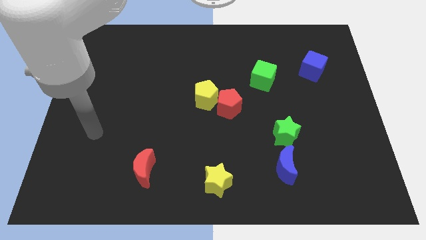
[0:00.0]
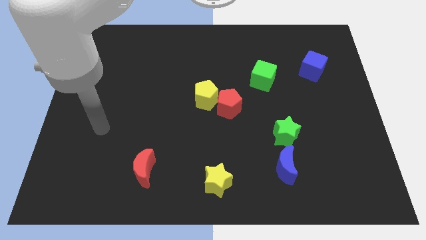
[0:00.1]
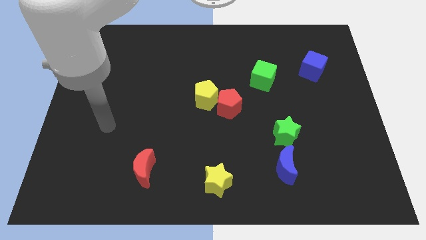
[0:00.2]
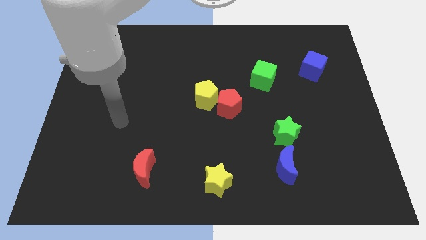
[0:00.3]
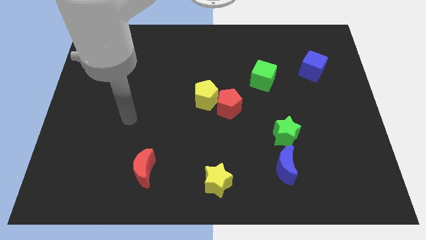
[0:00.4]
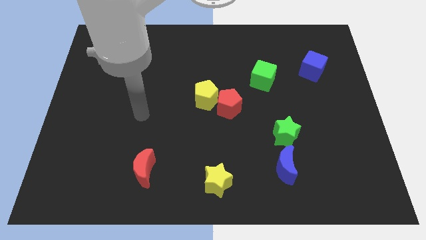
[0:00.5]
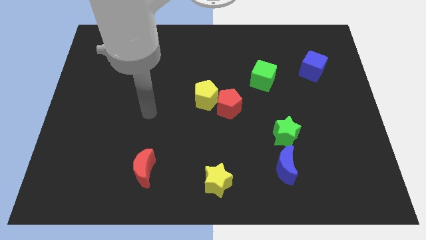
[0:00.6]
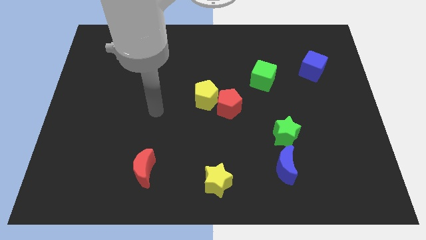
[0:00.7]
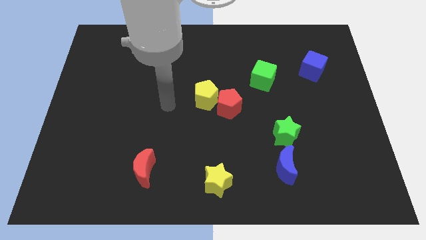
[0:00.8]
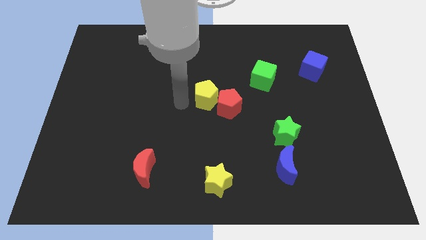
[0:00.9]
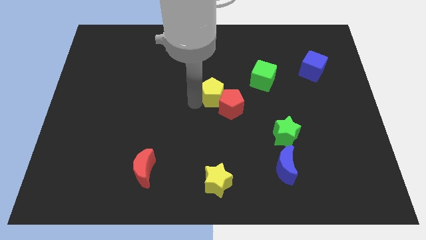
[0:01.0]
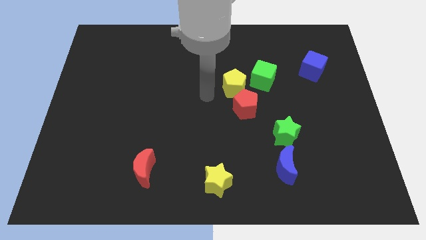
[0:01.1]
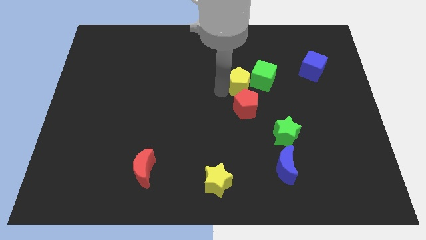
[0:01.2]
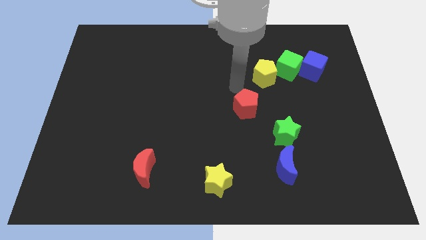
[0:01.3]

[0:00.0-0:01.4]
separate the red pentagon from the yellow pentagon

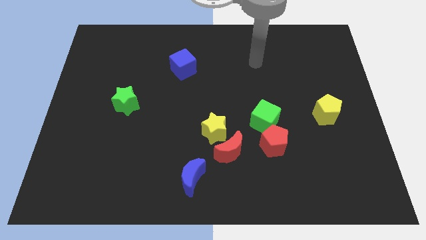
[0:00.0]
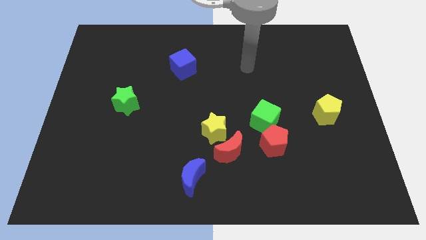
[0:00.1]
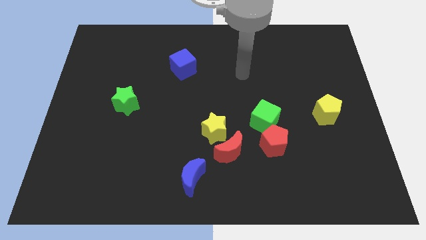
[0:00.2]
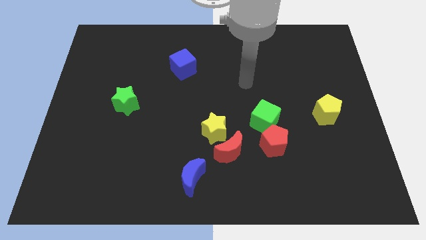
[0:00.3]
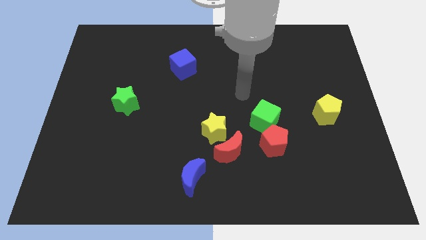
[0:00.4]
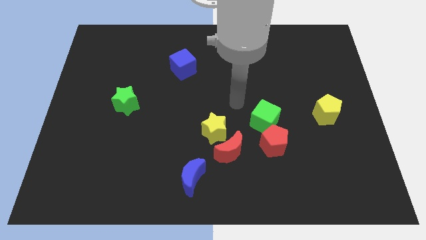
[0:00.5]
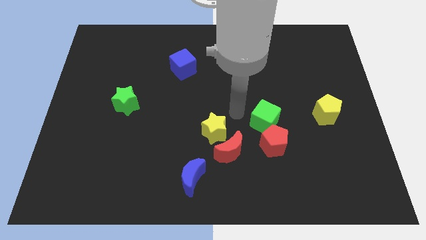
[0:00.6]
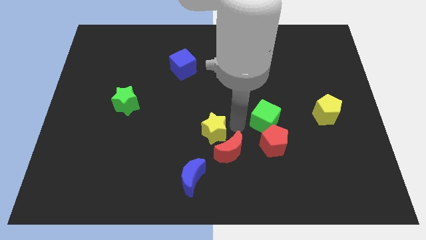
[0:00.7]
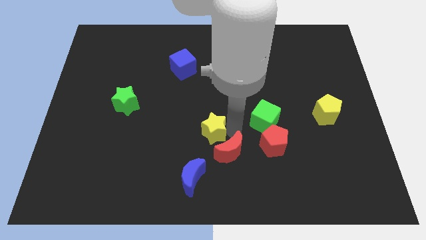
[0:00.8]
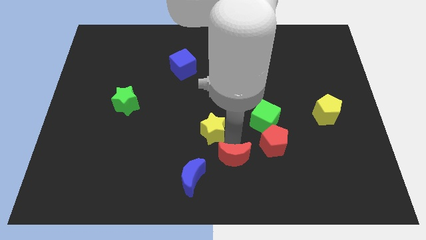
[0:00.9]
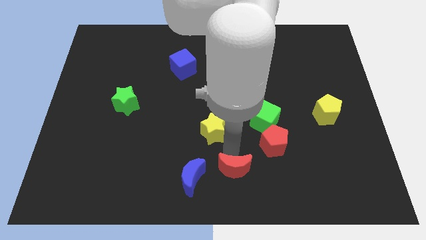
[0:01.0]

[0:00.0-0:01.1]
pull the yellow star apart from the red moon

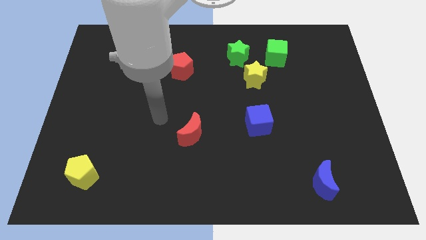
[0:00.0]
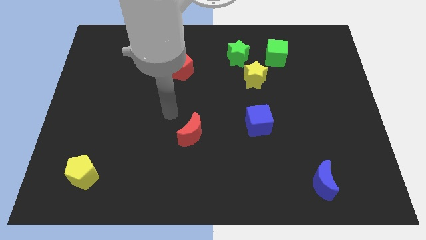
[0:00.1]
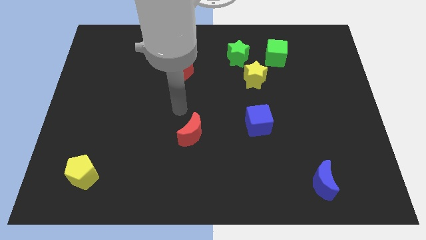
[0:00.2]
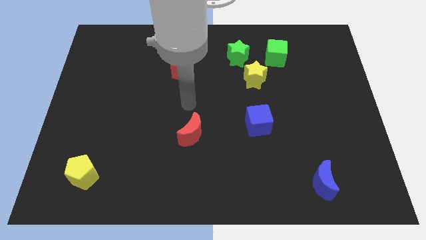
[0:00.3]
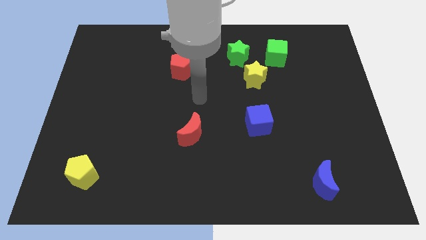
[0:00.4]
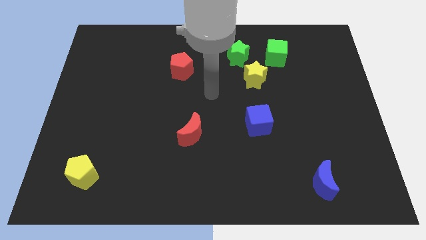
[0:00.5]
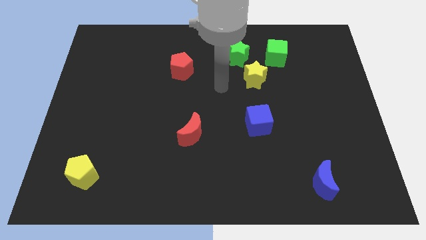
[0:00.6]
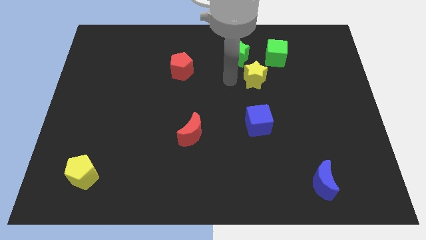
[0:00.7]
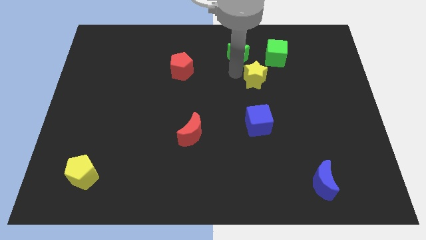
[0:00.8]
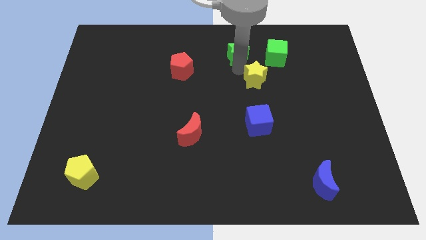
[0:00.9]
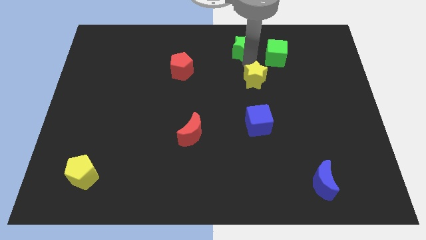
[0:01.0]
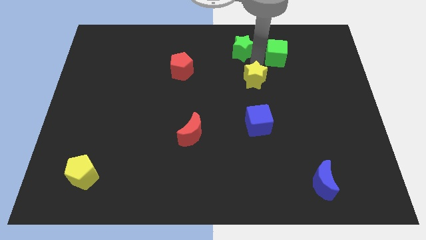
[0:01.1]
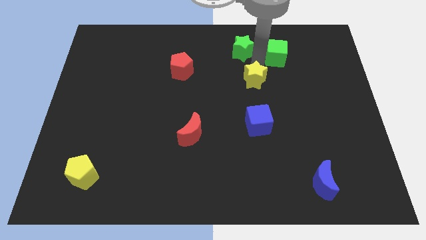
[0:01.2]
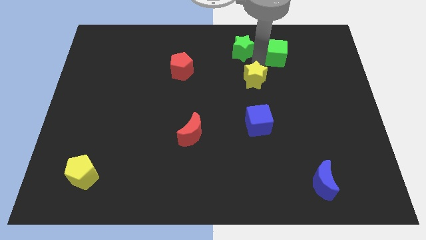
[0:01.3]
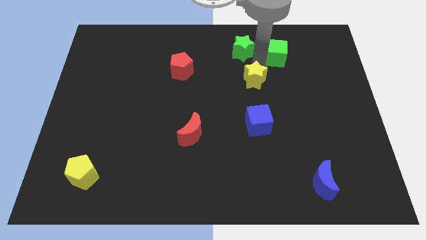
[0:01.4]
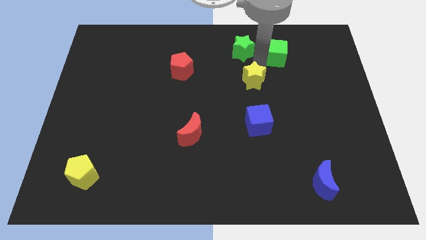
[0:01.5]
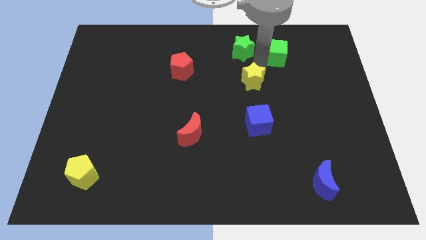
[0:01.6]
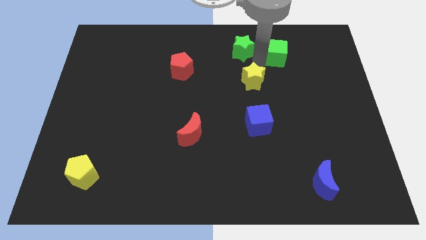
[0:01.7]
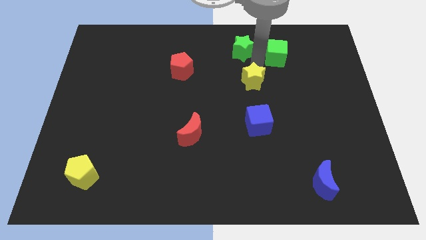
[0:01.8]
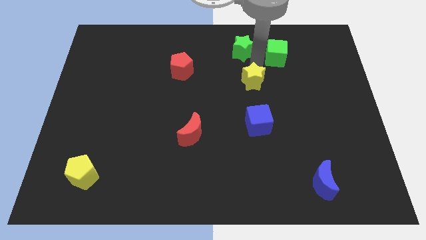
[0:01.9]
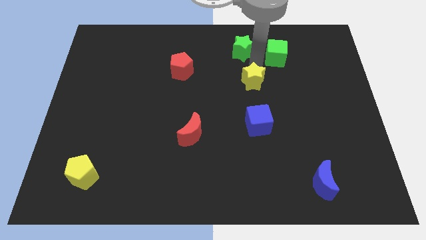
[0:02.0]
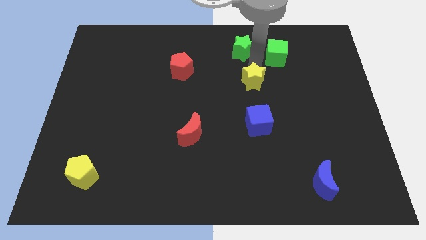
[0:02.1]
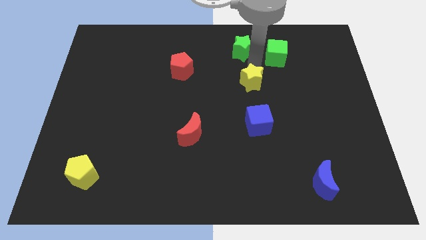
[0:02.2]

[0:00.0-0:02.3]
separate the yellow star from the green star and green cube

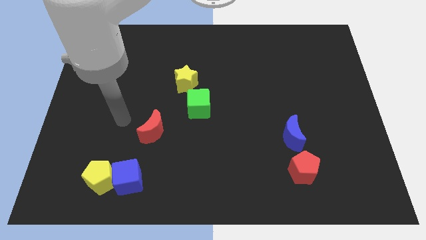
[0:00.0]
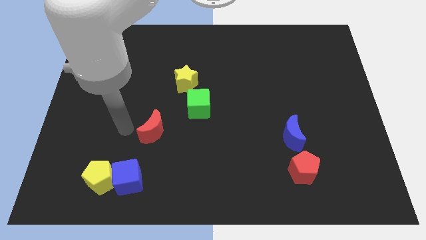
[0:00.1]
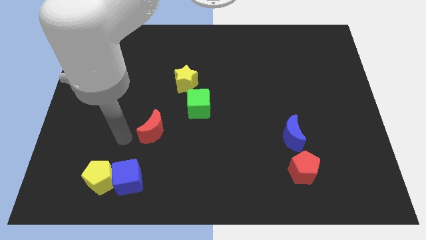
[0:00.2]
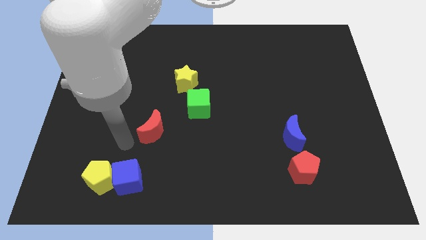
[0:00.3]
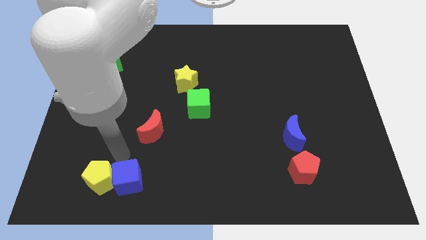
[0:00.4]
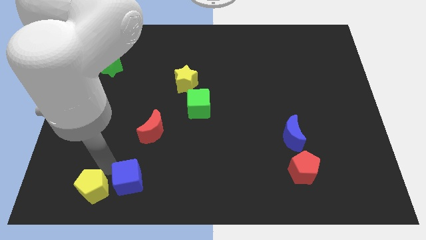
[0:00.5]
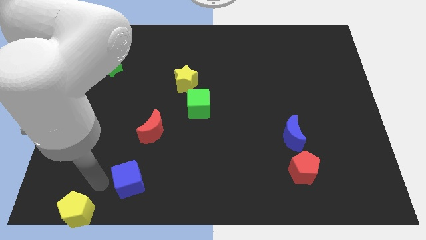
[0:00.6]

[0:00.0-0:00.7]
separate the blue cube from the yellow pentagon

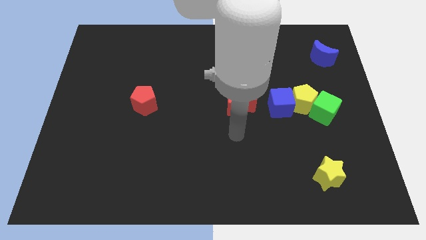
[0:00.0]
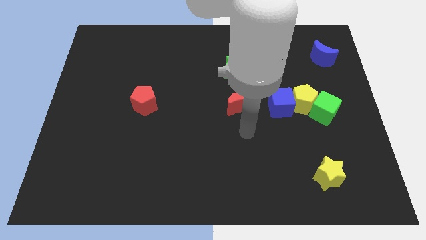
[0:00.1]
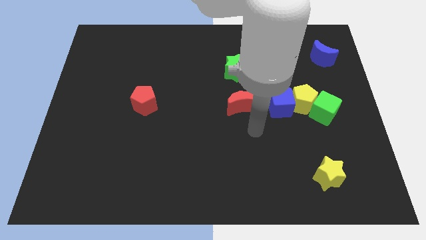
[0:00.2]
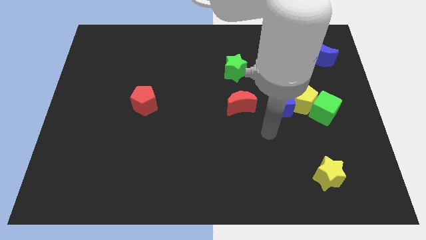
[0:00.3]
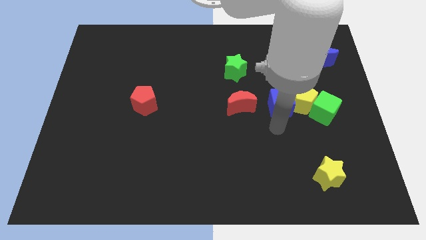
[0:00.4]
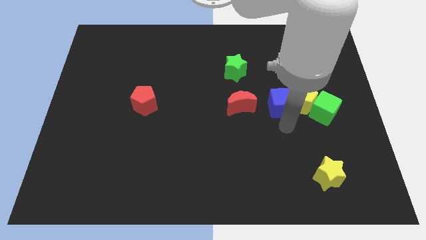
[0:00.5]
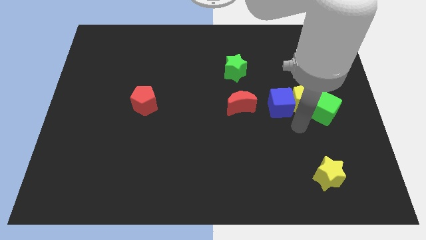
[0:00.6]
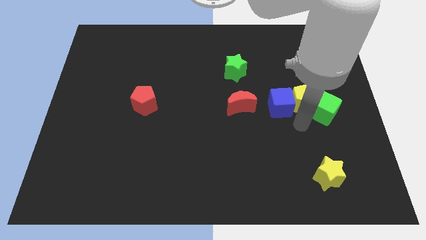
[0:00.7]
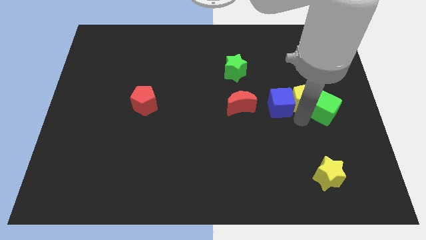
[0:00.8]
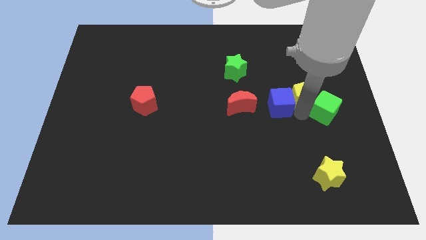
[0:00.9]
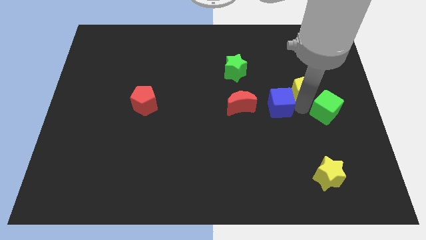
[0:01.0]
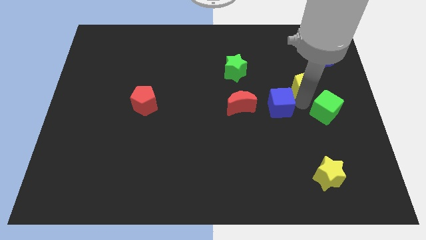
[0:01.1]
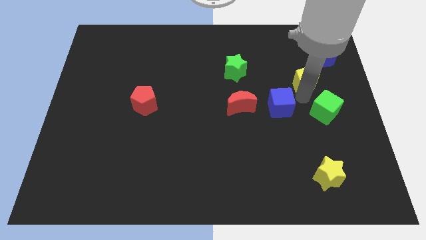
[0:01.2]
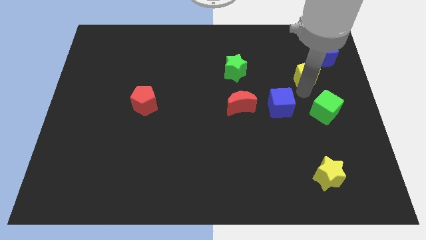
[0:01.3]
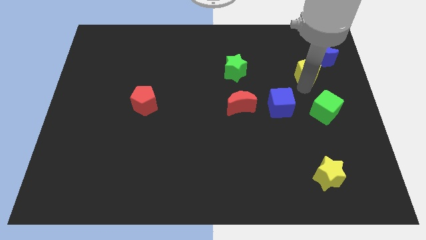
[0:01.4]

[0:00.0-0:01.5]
move the yellow pentagon away from the green cube and blue cube

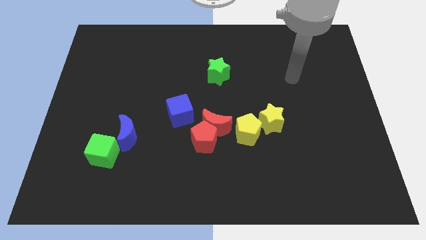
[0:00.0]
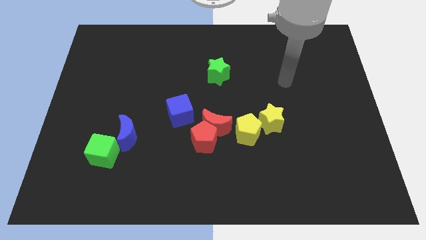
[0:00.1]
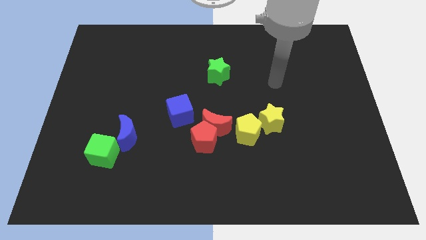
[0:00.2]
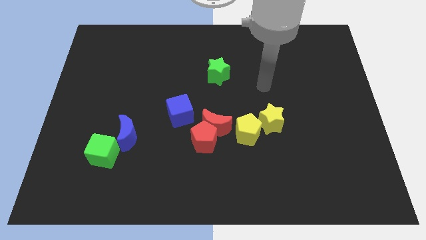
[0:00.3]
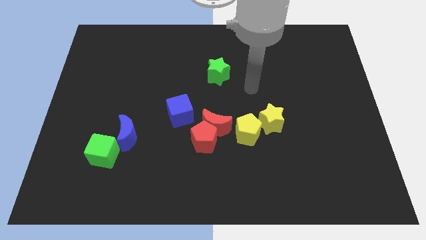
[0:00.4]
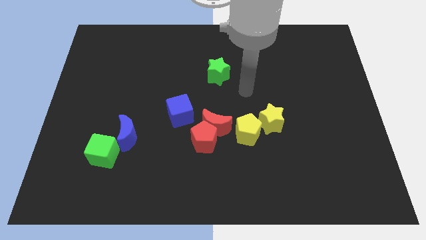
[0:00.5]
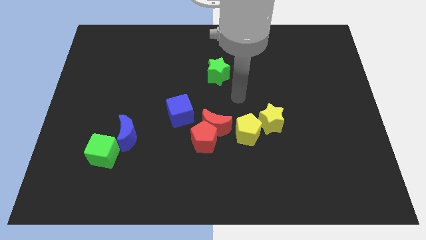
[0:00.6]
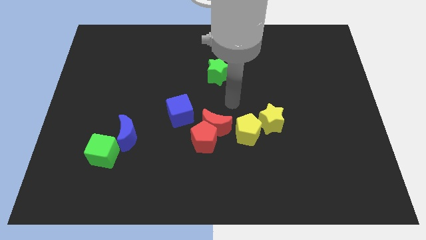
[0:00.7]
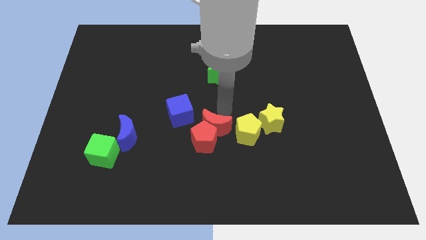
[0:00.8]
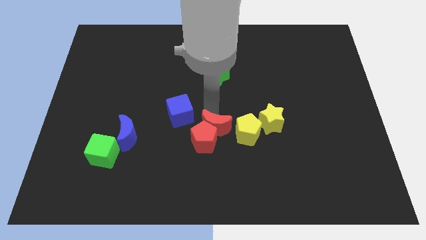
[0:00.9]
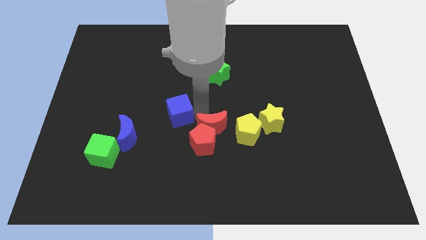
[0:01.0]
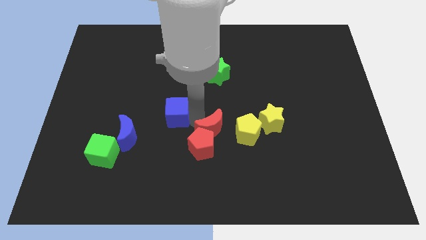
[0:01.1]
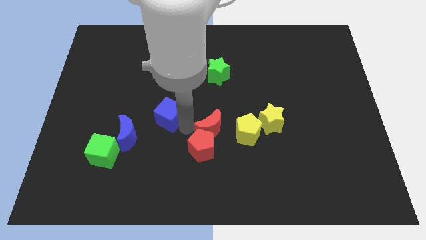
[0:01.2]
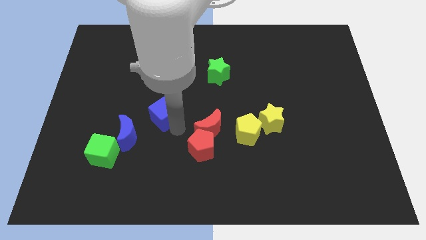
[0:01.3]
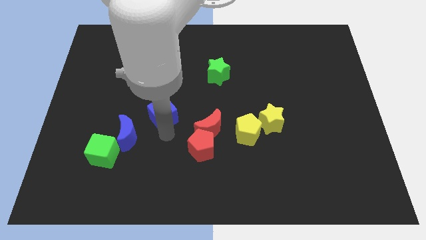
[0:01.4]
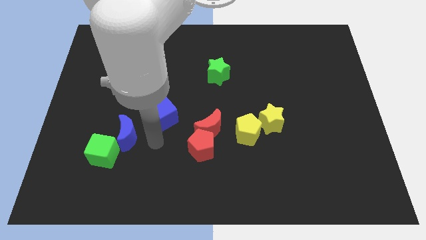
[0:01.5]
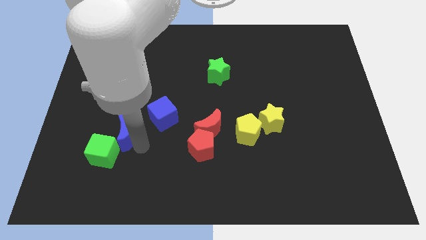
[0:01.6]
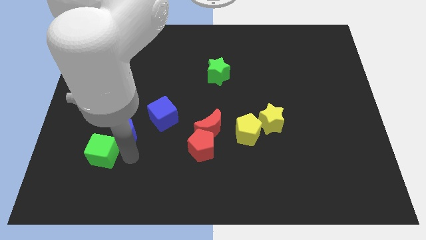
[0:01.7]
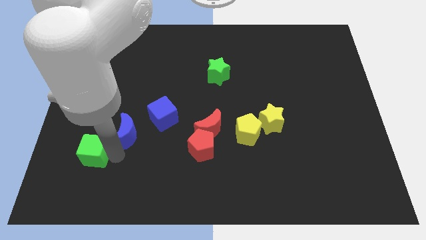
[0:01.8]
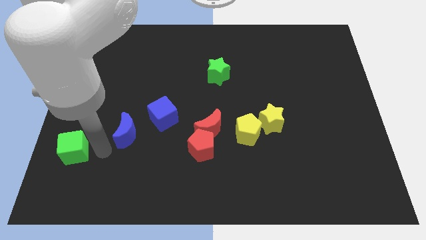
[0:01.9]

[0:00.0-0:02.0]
move the blue moon away from the green cube

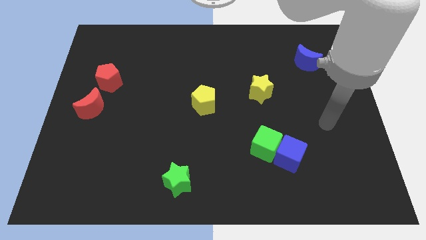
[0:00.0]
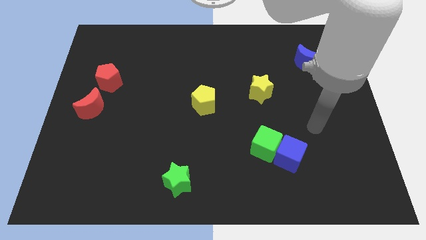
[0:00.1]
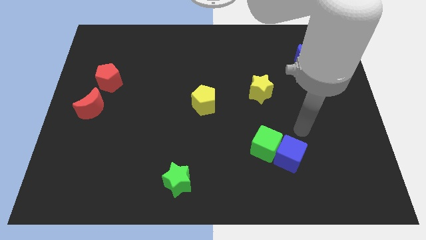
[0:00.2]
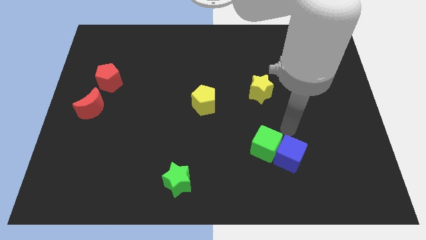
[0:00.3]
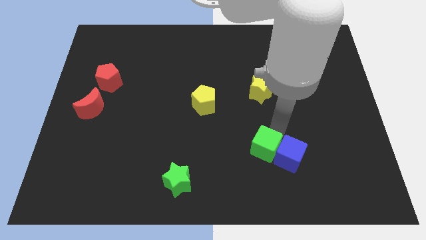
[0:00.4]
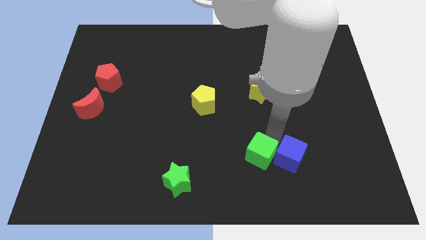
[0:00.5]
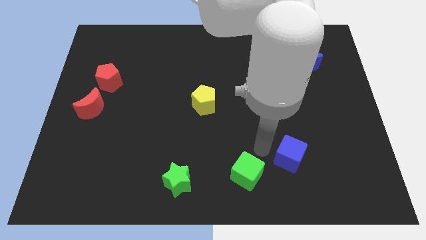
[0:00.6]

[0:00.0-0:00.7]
pull the blue cube apart from the green cube
